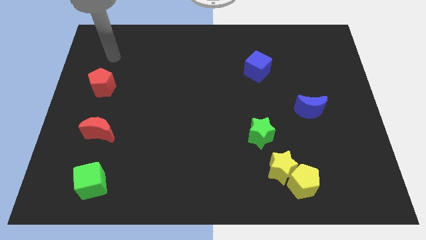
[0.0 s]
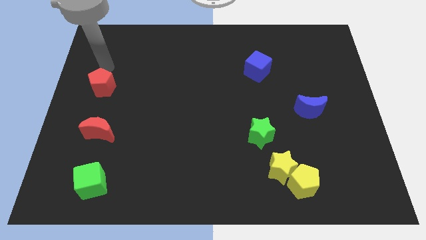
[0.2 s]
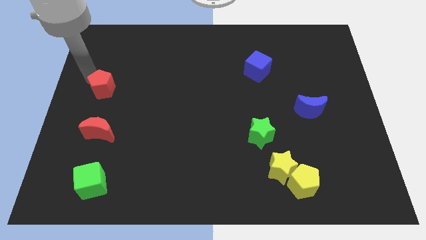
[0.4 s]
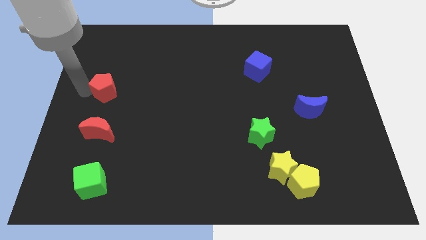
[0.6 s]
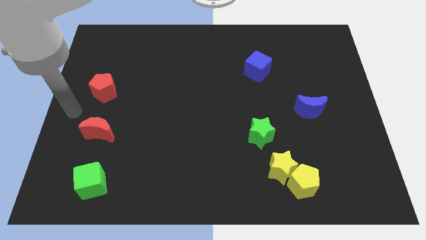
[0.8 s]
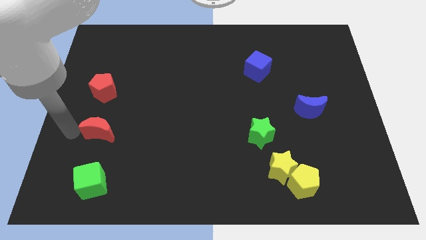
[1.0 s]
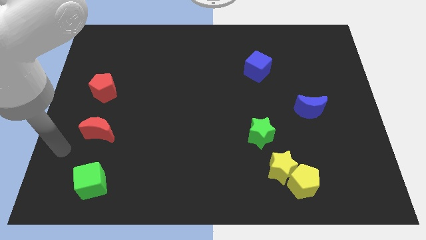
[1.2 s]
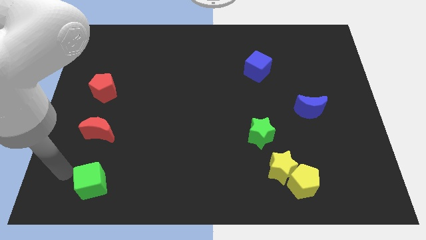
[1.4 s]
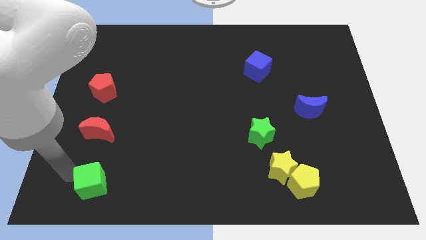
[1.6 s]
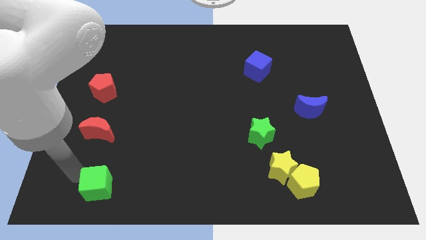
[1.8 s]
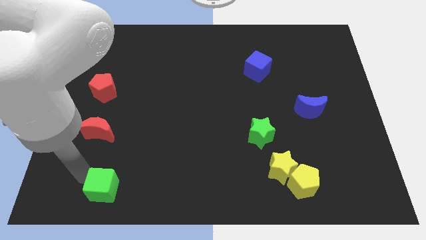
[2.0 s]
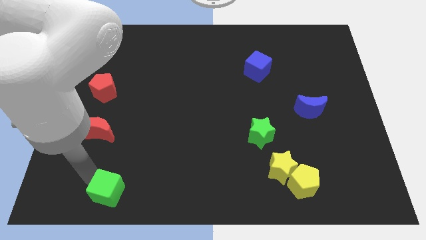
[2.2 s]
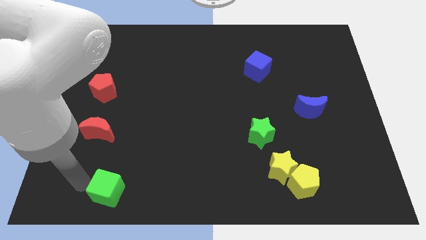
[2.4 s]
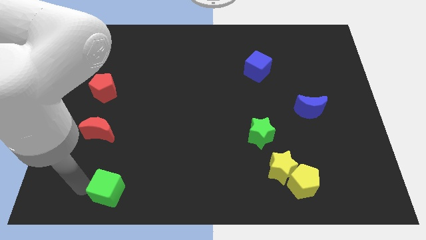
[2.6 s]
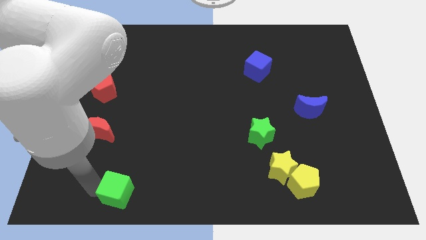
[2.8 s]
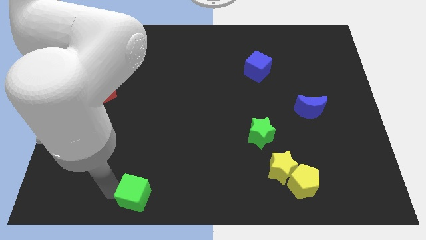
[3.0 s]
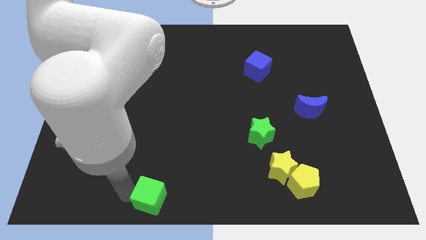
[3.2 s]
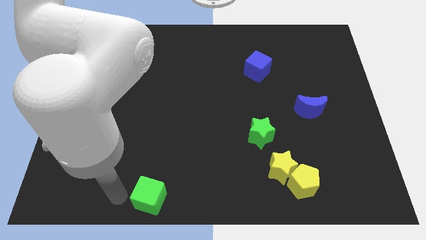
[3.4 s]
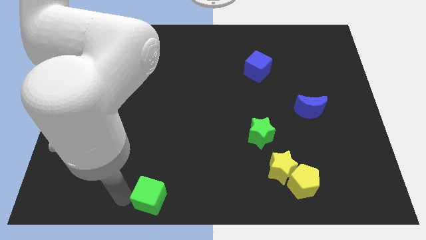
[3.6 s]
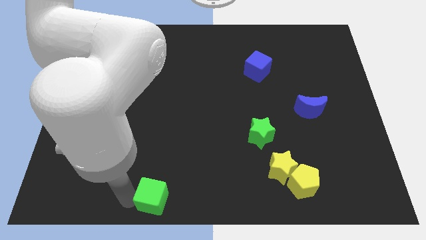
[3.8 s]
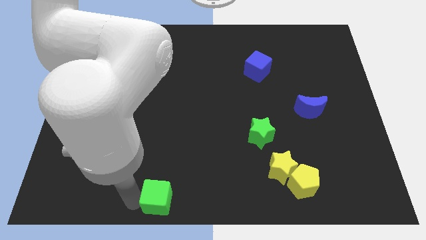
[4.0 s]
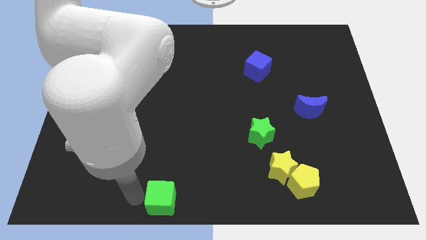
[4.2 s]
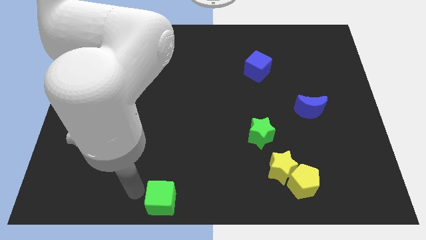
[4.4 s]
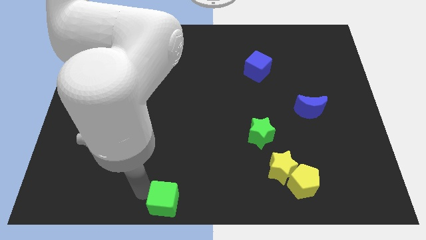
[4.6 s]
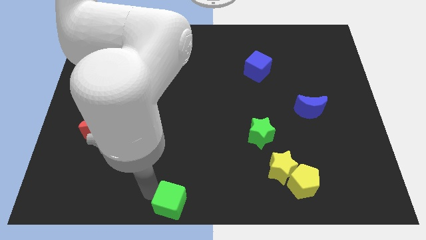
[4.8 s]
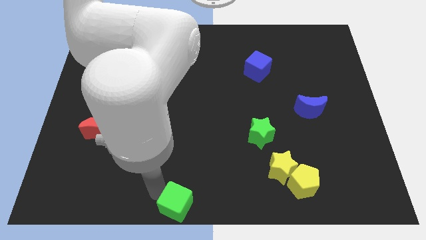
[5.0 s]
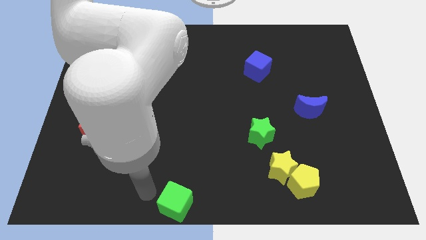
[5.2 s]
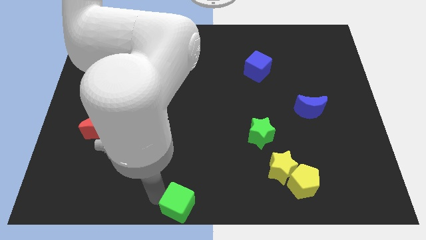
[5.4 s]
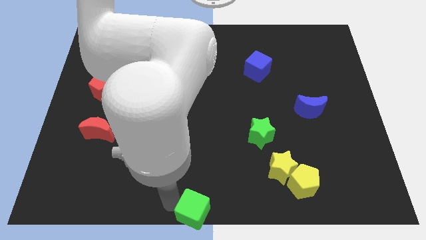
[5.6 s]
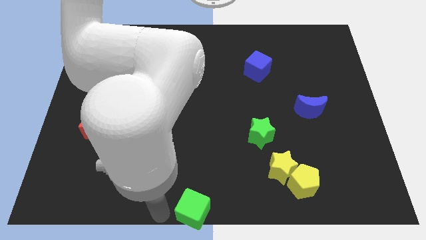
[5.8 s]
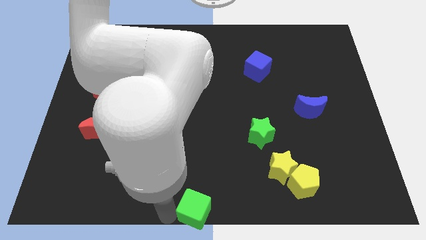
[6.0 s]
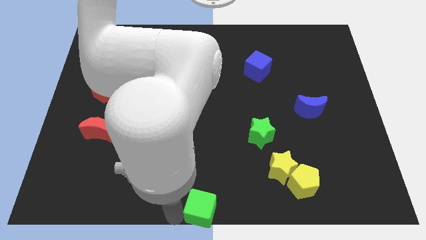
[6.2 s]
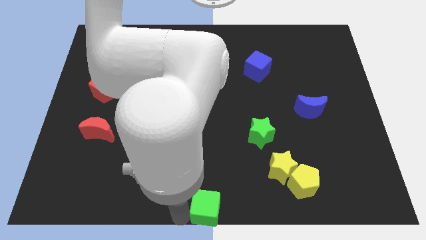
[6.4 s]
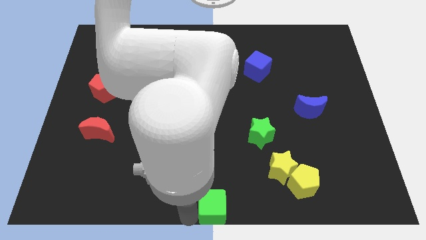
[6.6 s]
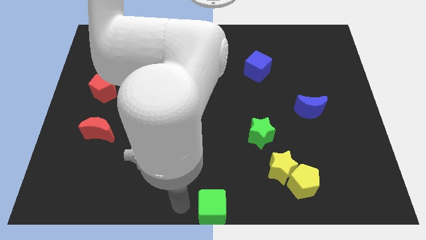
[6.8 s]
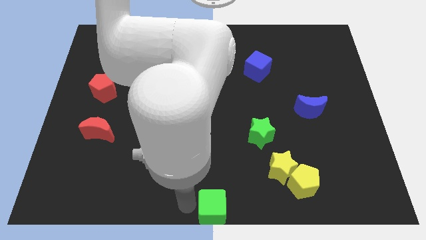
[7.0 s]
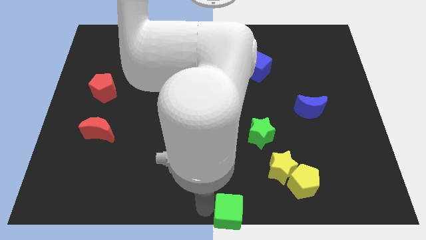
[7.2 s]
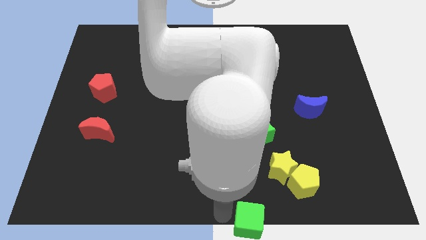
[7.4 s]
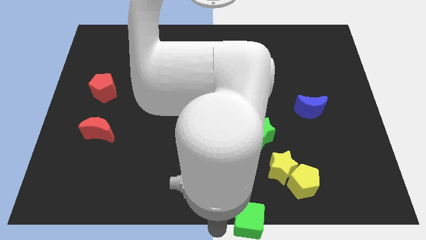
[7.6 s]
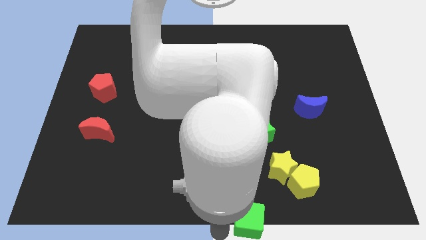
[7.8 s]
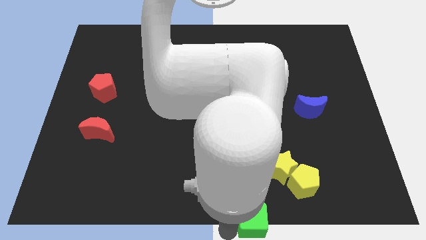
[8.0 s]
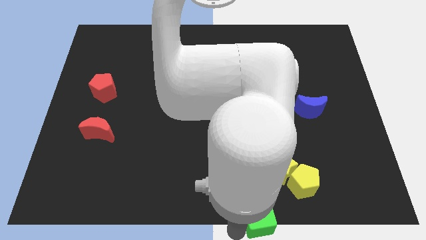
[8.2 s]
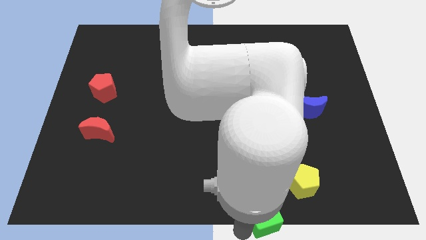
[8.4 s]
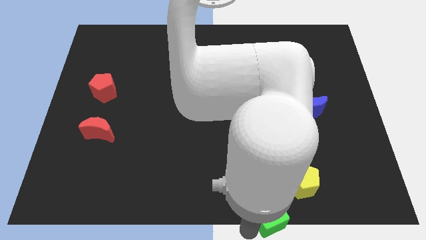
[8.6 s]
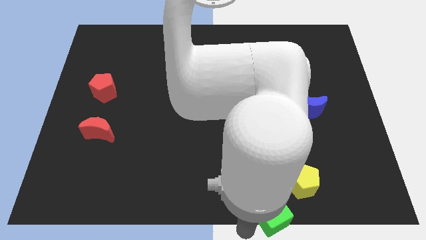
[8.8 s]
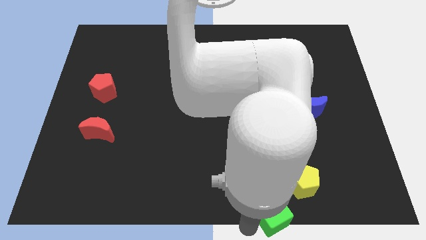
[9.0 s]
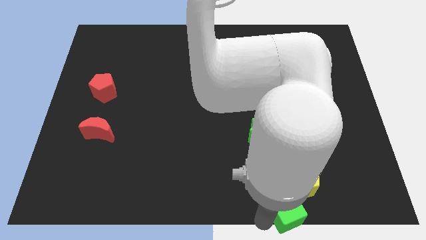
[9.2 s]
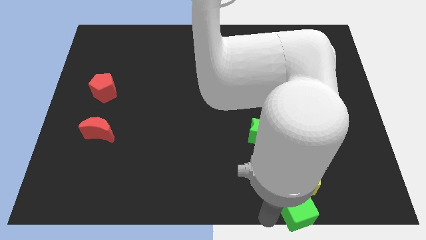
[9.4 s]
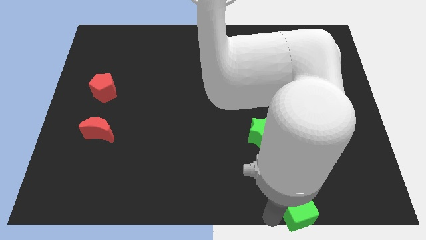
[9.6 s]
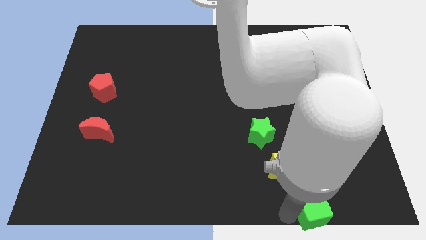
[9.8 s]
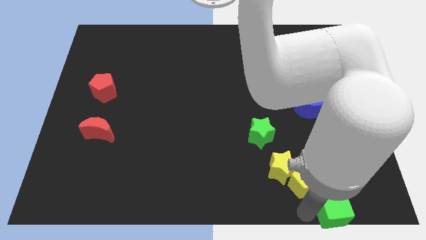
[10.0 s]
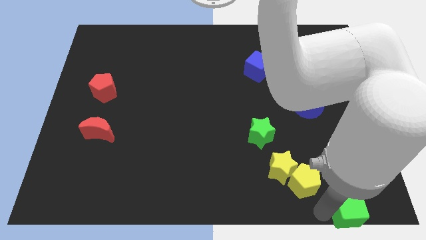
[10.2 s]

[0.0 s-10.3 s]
push the green cube to the bottom right

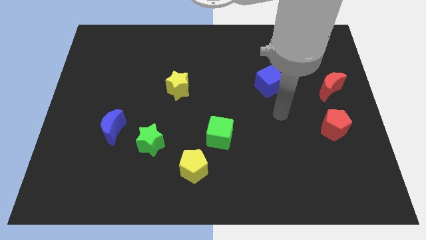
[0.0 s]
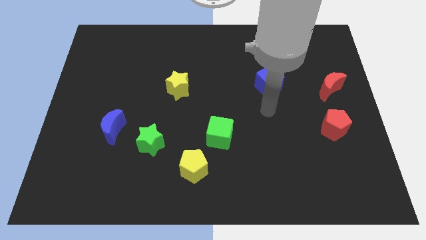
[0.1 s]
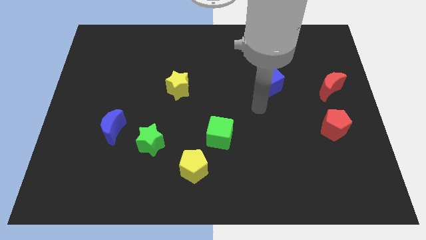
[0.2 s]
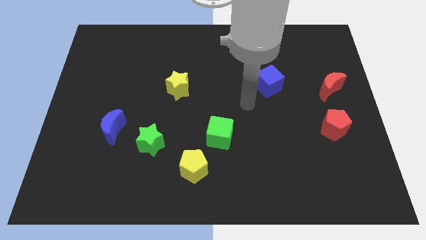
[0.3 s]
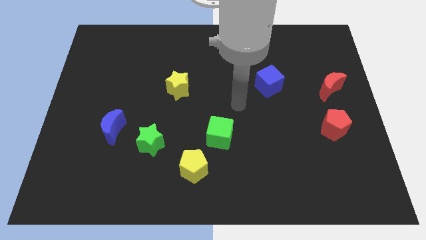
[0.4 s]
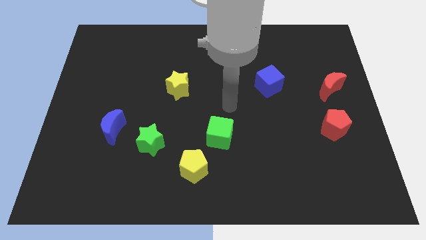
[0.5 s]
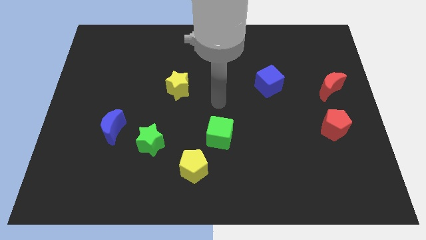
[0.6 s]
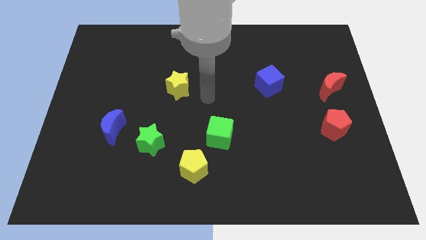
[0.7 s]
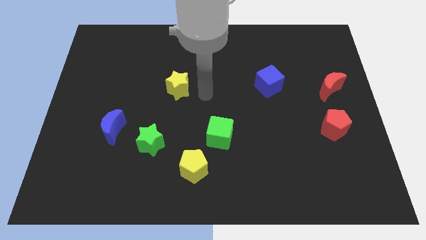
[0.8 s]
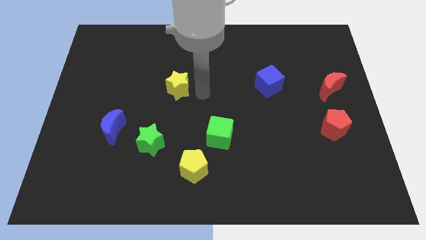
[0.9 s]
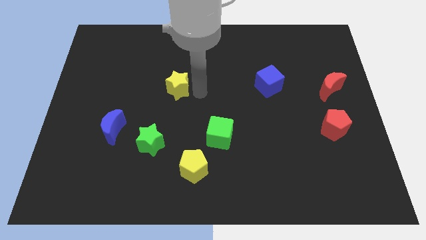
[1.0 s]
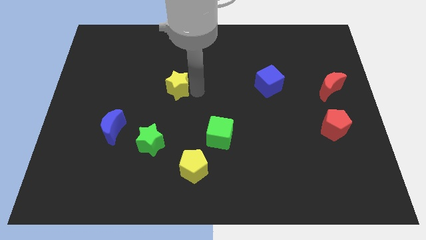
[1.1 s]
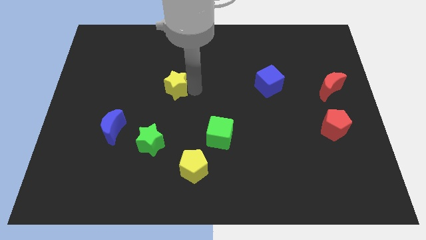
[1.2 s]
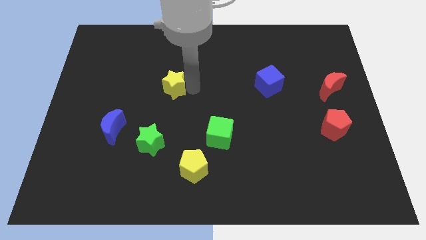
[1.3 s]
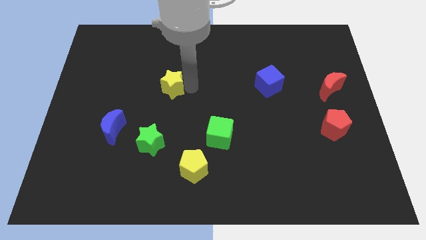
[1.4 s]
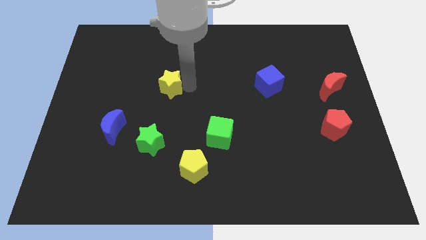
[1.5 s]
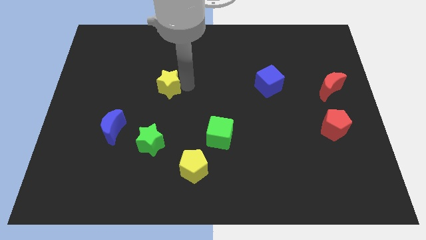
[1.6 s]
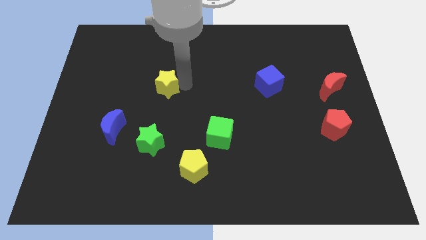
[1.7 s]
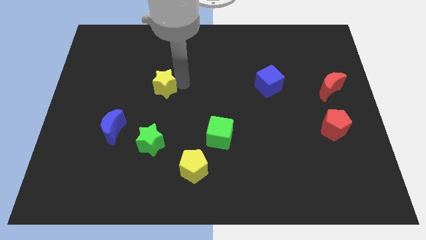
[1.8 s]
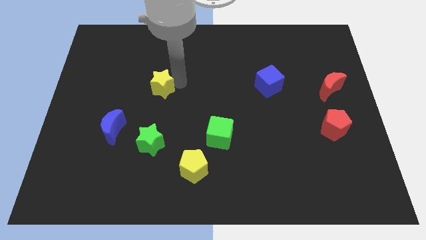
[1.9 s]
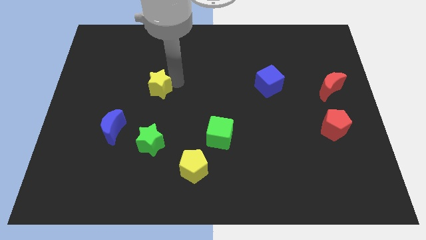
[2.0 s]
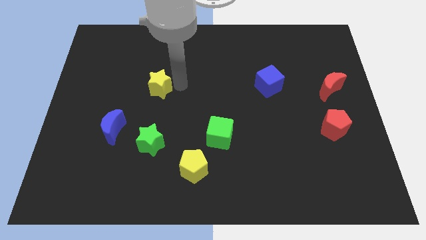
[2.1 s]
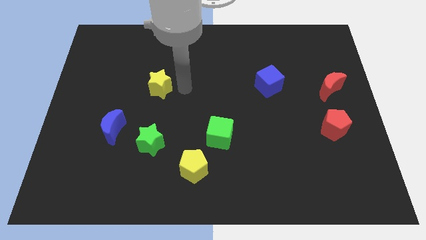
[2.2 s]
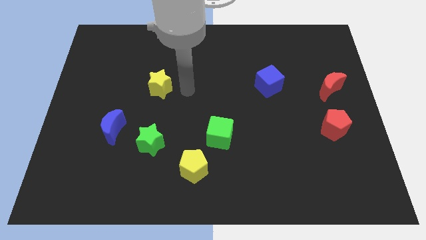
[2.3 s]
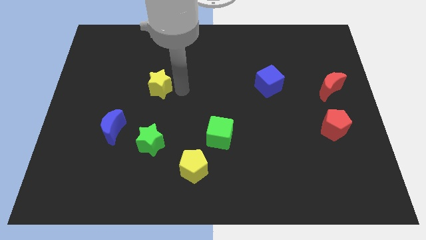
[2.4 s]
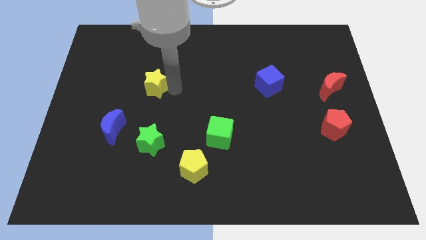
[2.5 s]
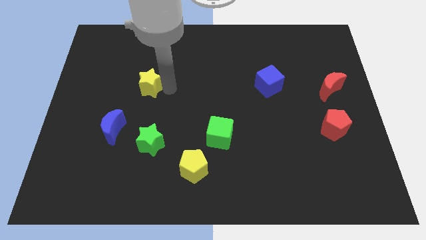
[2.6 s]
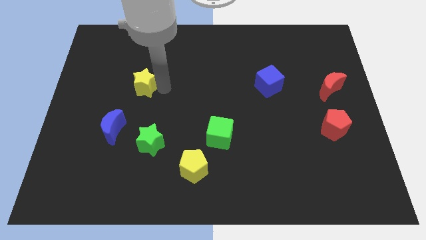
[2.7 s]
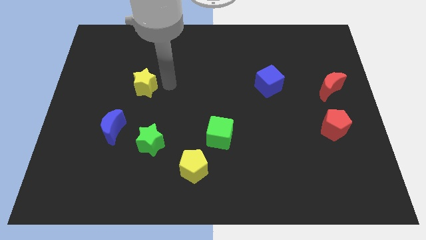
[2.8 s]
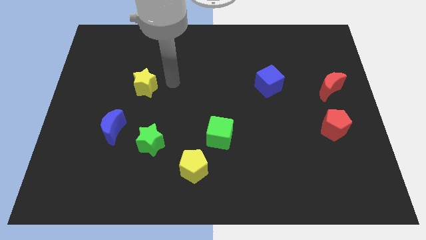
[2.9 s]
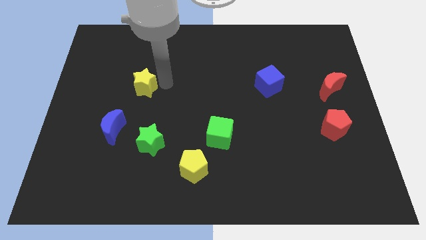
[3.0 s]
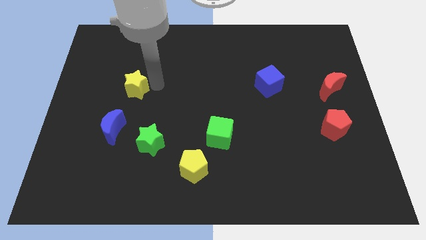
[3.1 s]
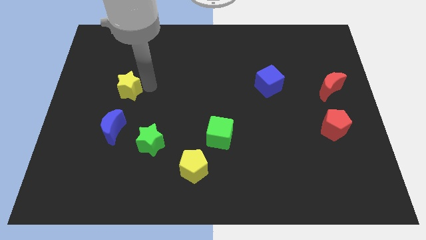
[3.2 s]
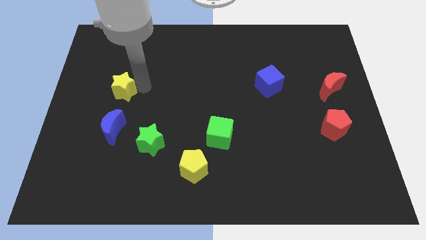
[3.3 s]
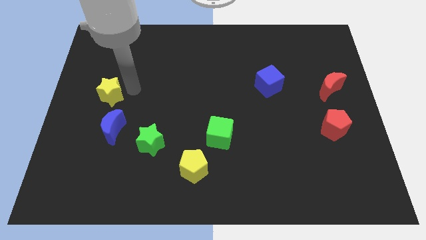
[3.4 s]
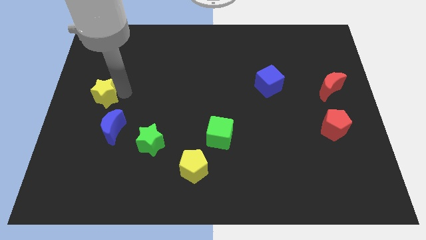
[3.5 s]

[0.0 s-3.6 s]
put the yellow star to the center left
